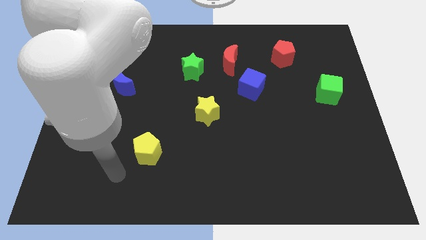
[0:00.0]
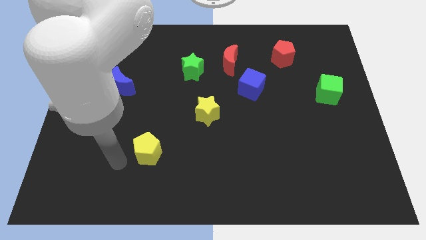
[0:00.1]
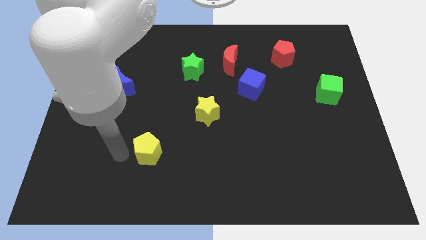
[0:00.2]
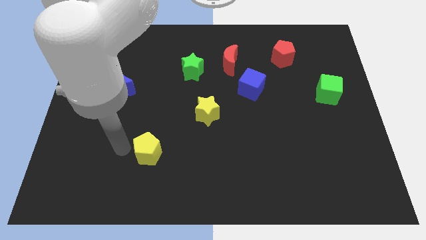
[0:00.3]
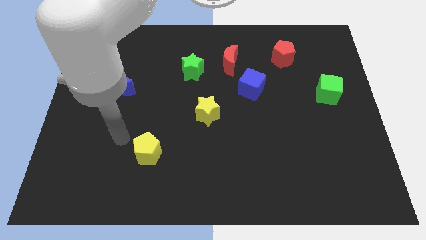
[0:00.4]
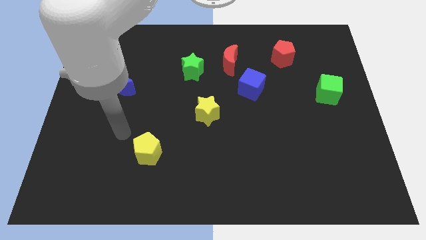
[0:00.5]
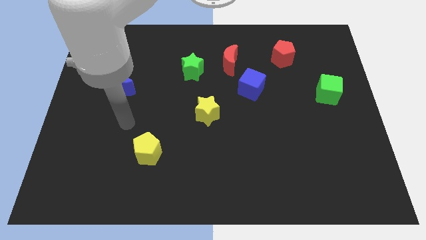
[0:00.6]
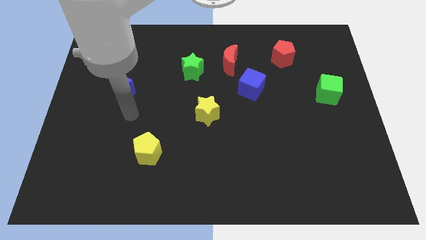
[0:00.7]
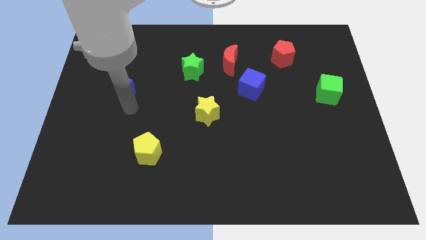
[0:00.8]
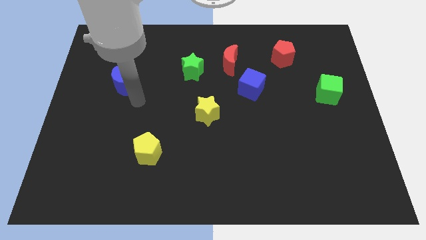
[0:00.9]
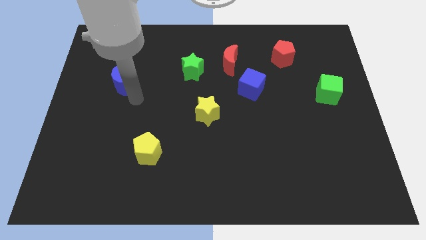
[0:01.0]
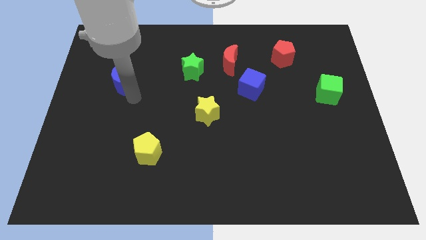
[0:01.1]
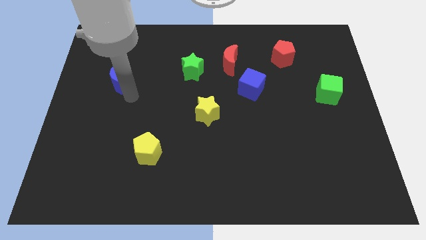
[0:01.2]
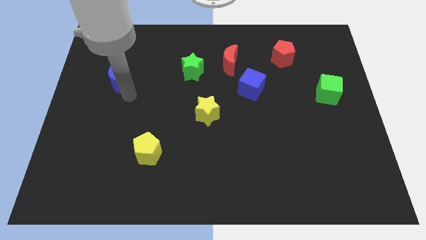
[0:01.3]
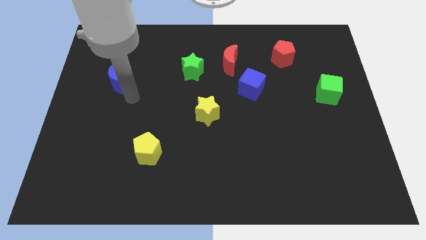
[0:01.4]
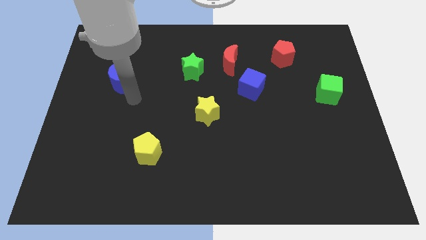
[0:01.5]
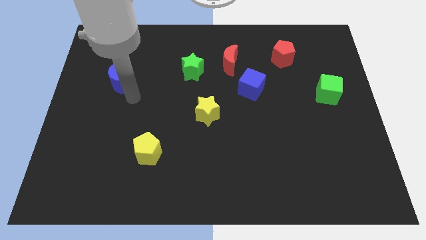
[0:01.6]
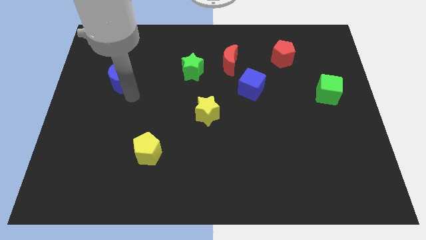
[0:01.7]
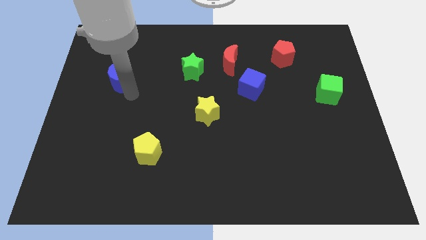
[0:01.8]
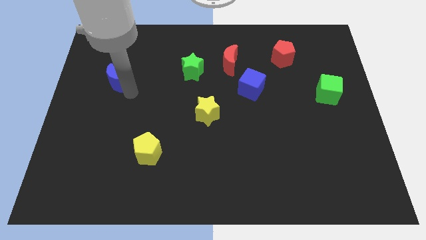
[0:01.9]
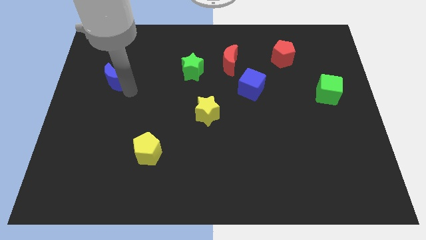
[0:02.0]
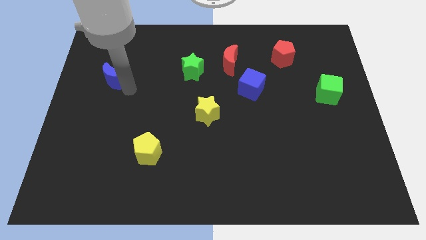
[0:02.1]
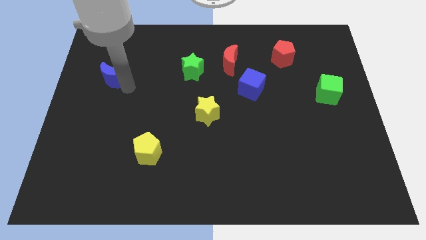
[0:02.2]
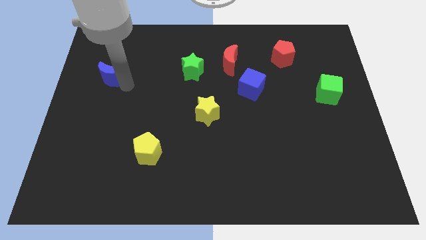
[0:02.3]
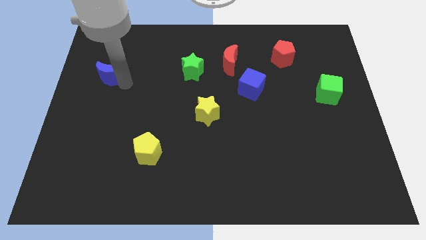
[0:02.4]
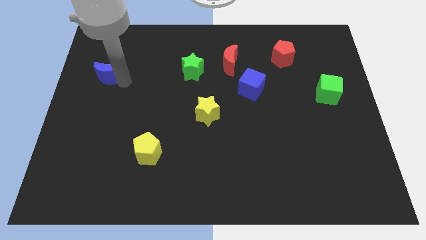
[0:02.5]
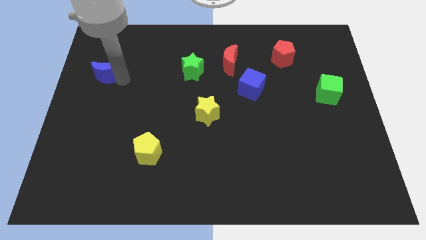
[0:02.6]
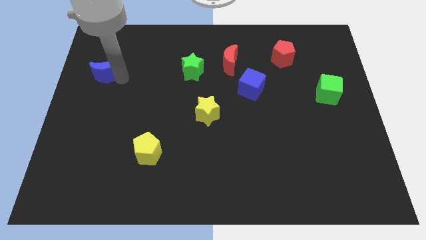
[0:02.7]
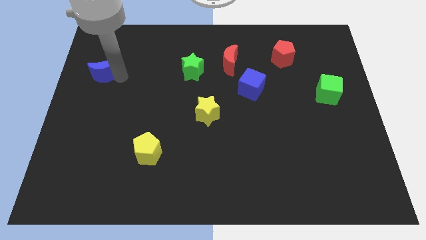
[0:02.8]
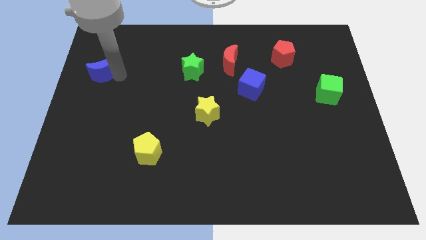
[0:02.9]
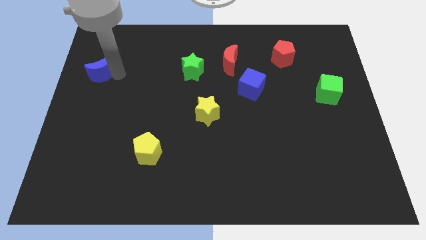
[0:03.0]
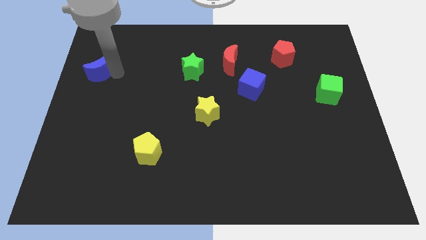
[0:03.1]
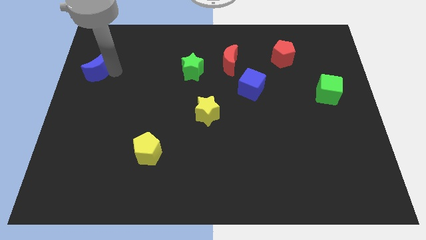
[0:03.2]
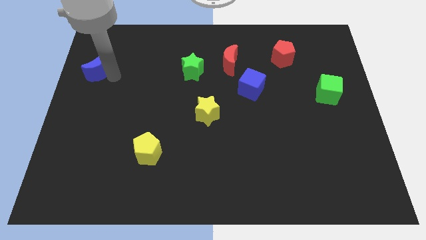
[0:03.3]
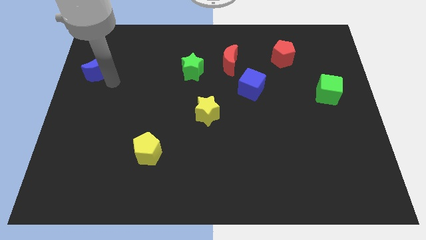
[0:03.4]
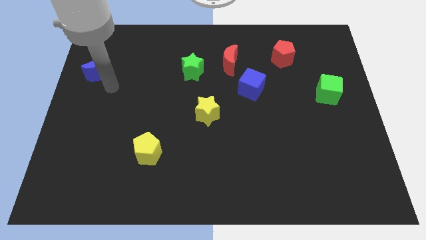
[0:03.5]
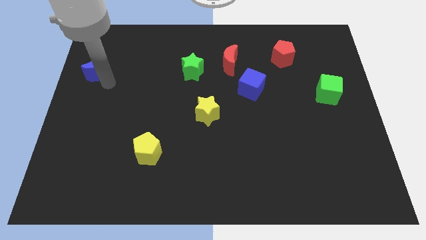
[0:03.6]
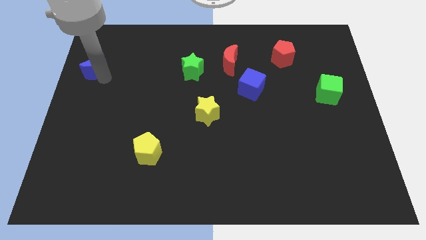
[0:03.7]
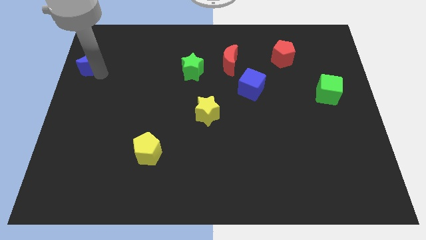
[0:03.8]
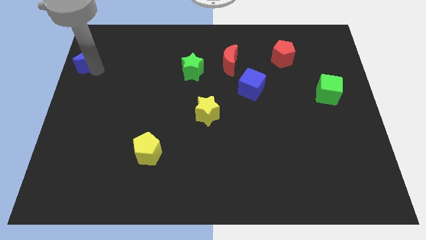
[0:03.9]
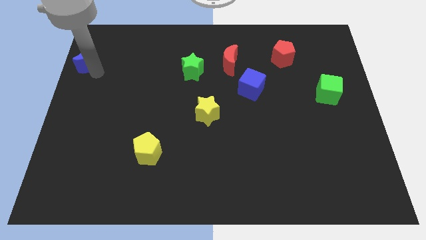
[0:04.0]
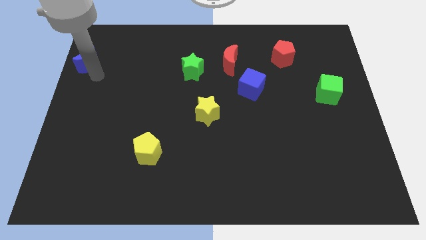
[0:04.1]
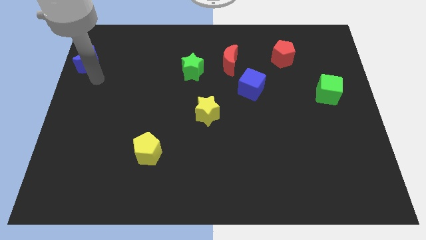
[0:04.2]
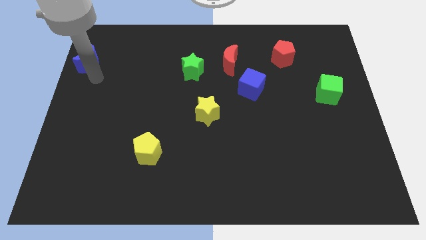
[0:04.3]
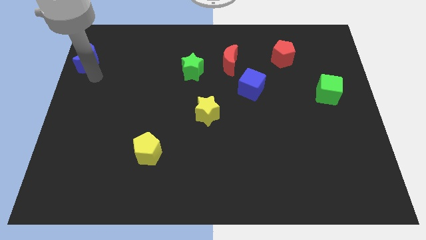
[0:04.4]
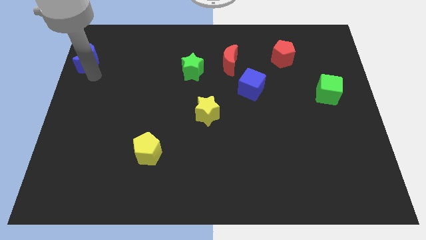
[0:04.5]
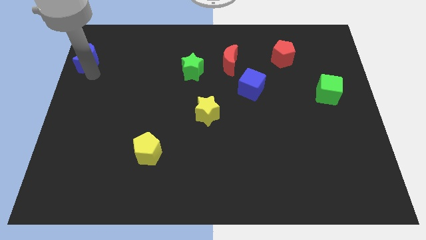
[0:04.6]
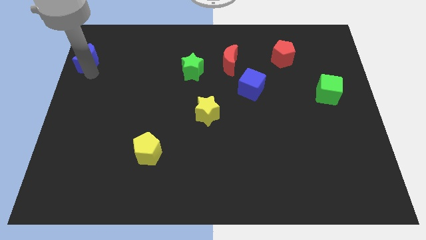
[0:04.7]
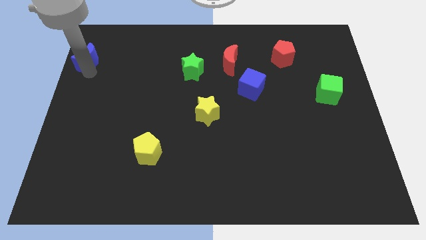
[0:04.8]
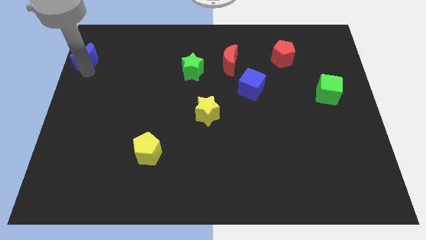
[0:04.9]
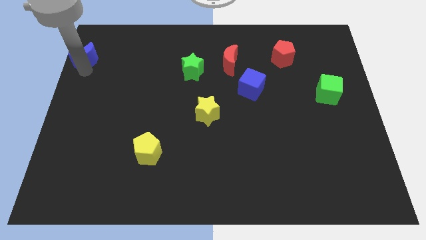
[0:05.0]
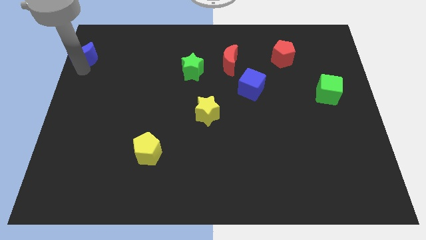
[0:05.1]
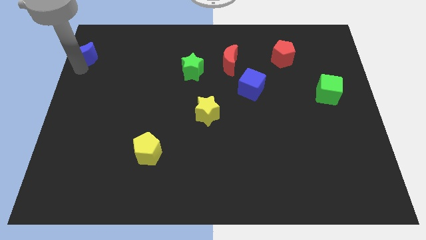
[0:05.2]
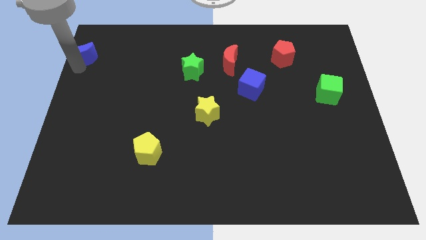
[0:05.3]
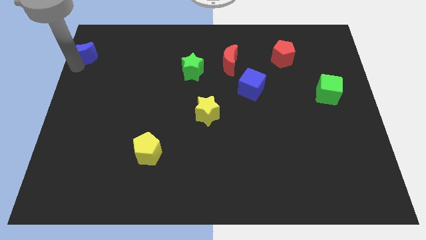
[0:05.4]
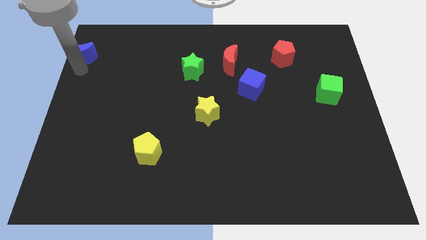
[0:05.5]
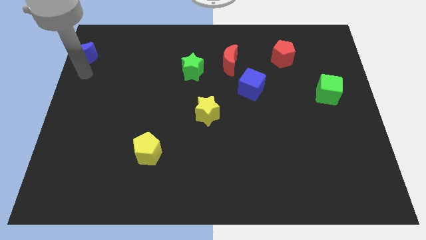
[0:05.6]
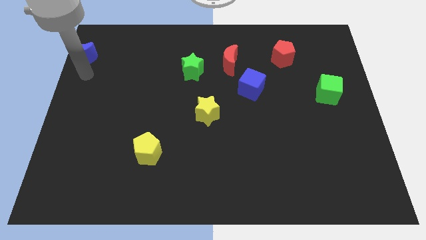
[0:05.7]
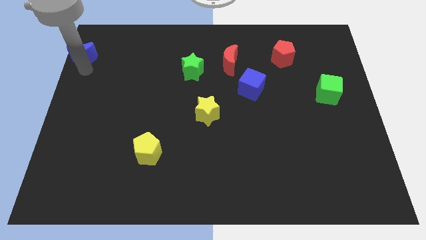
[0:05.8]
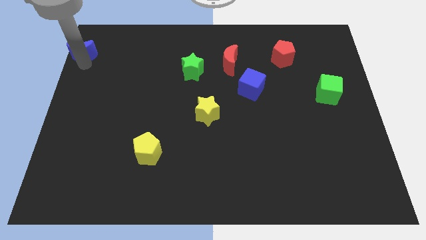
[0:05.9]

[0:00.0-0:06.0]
move the blue moon to the upper left corner
